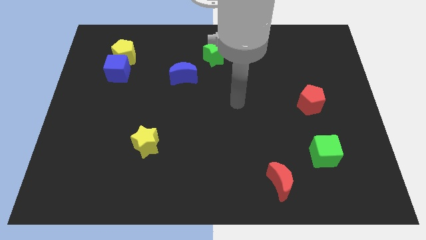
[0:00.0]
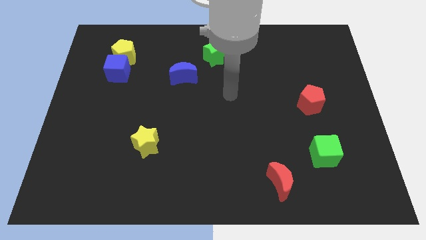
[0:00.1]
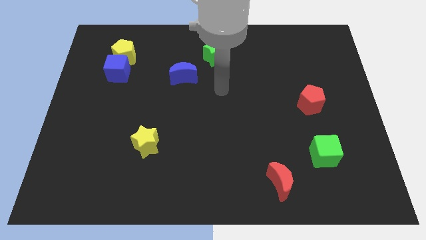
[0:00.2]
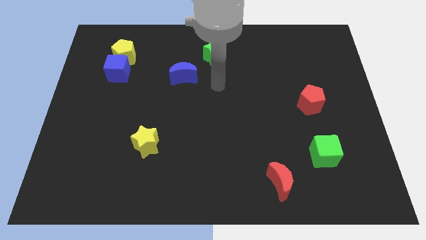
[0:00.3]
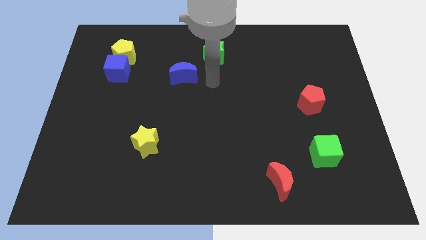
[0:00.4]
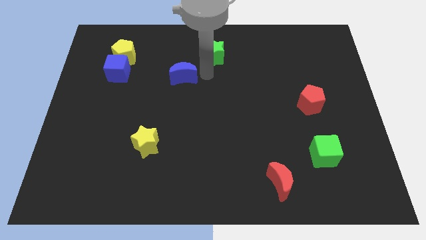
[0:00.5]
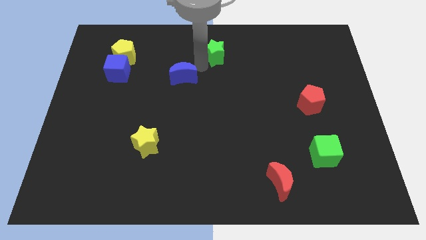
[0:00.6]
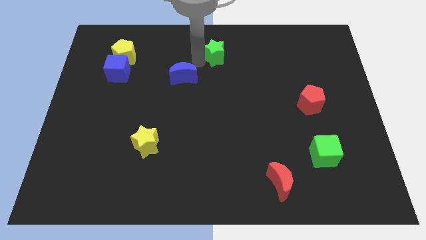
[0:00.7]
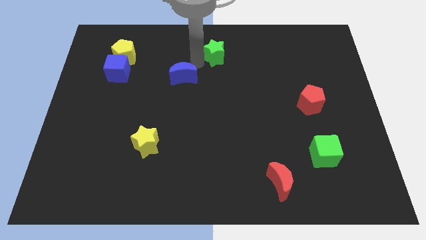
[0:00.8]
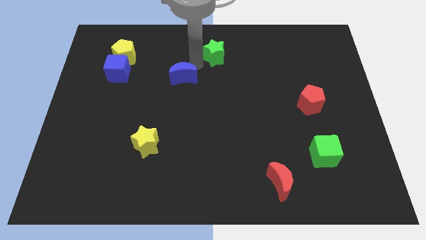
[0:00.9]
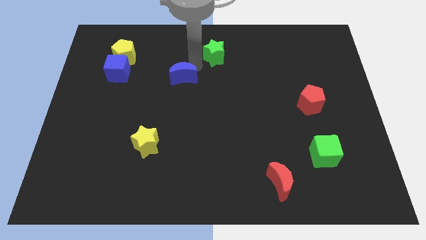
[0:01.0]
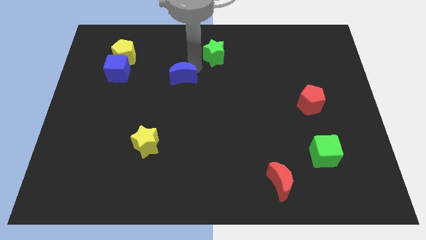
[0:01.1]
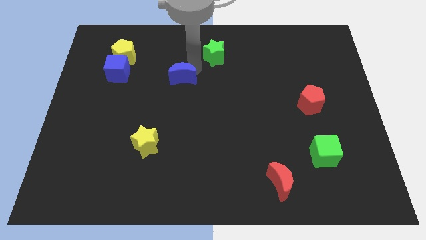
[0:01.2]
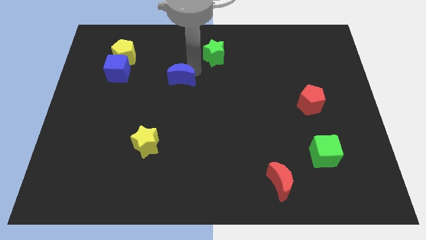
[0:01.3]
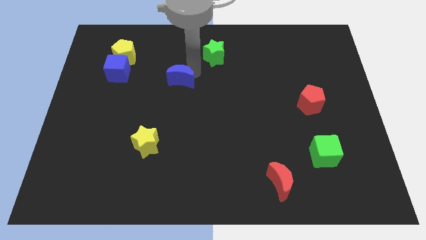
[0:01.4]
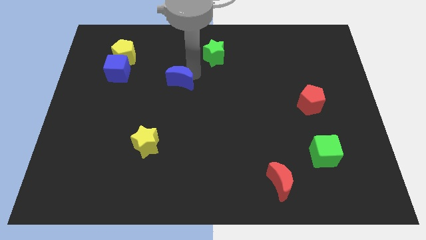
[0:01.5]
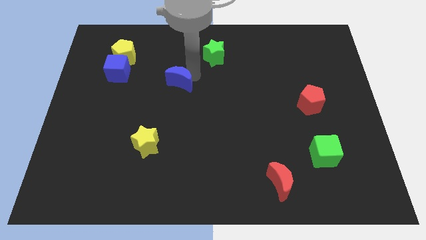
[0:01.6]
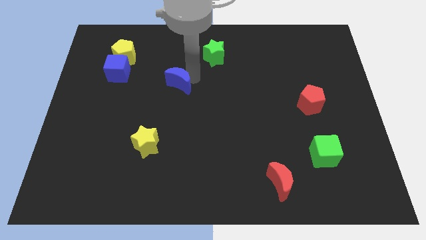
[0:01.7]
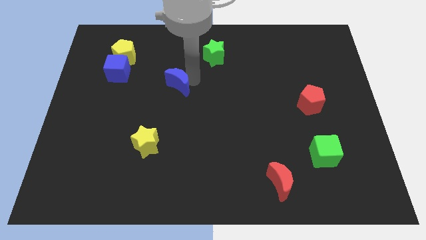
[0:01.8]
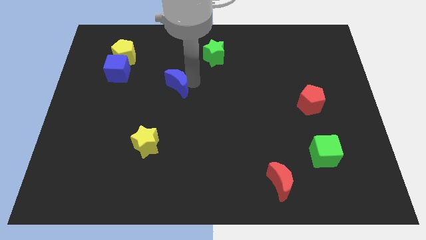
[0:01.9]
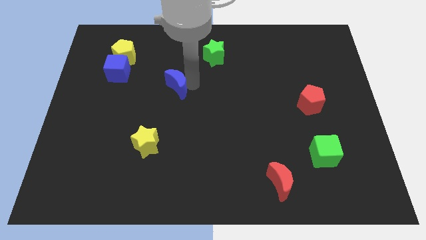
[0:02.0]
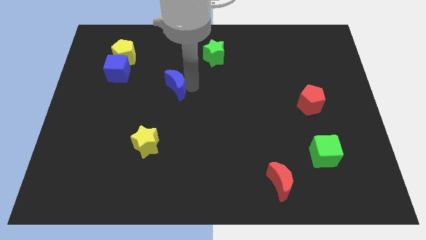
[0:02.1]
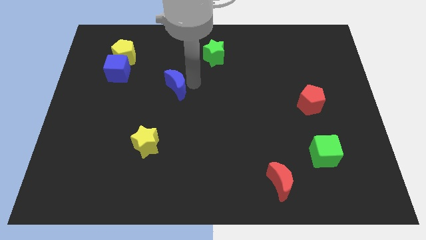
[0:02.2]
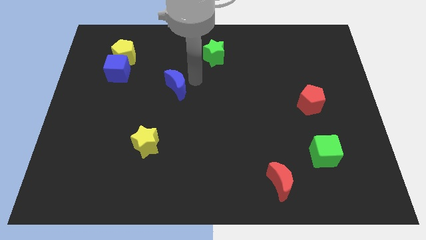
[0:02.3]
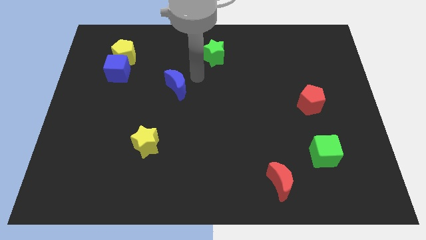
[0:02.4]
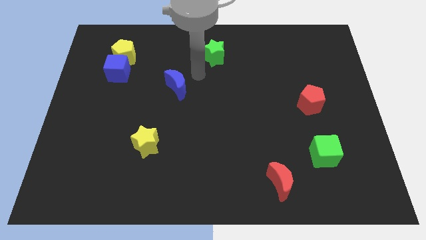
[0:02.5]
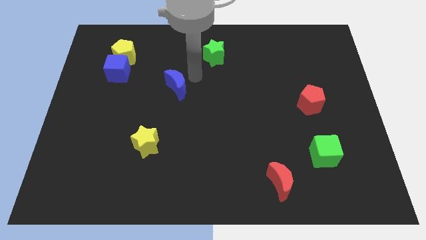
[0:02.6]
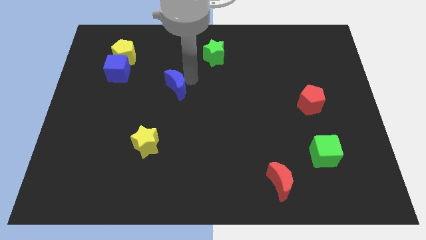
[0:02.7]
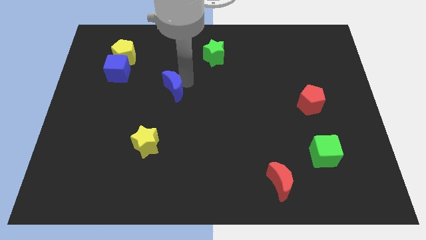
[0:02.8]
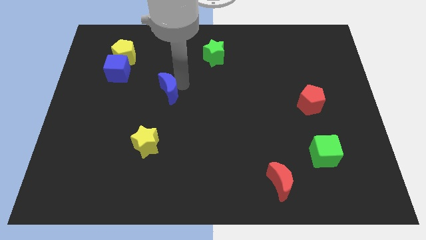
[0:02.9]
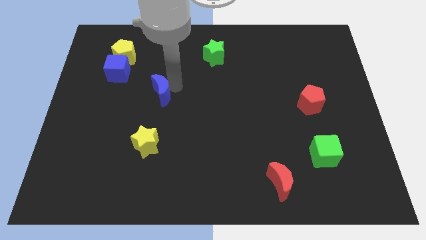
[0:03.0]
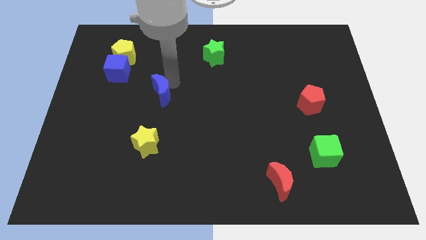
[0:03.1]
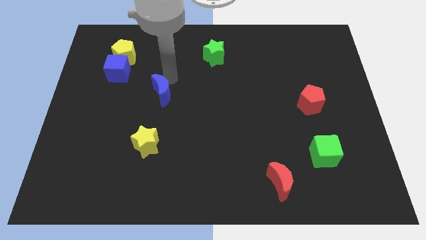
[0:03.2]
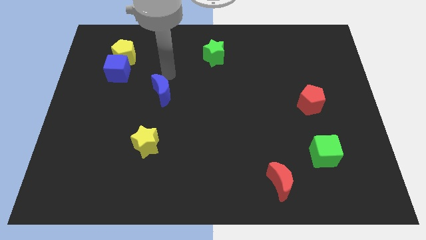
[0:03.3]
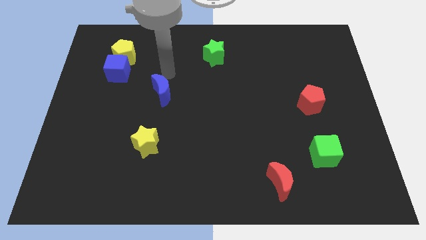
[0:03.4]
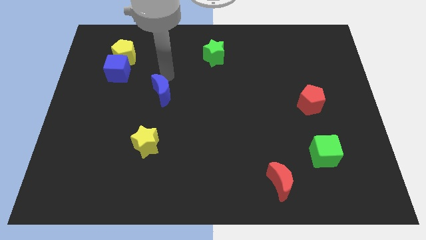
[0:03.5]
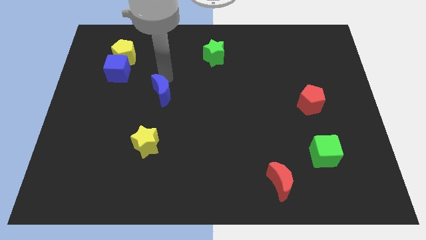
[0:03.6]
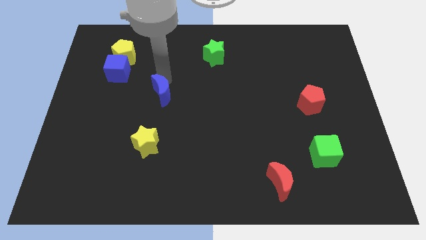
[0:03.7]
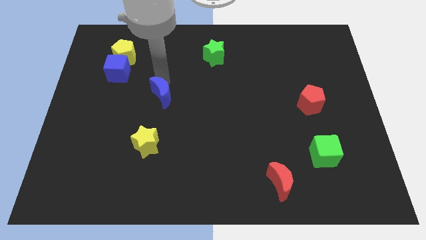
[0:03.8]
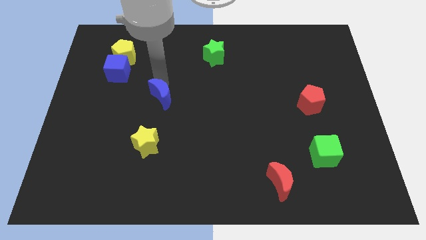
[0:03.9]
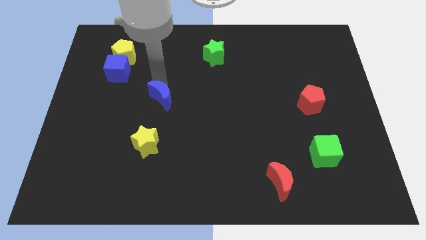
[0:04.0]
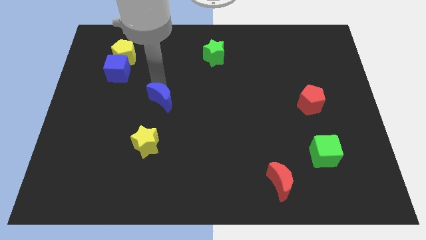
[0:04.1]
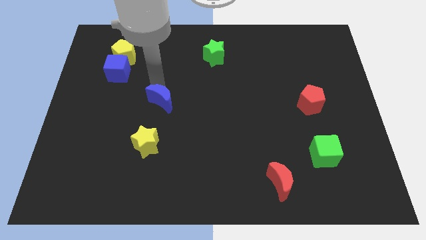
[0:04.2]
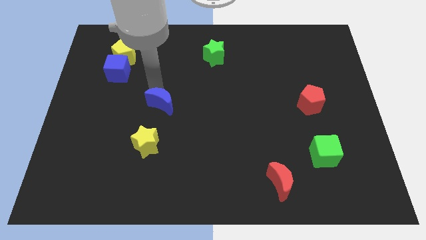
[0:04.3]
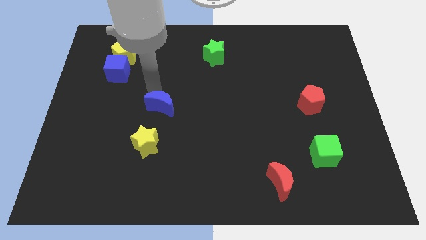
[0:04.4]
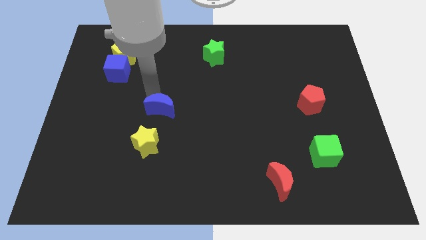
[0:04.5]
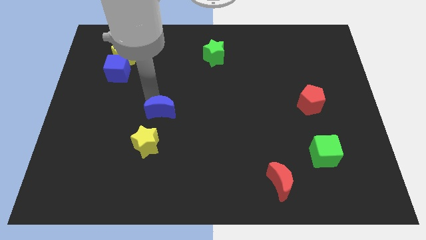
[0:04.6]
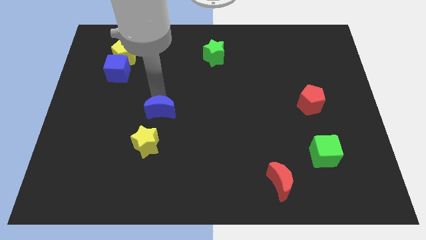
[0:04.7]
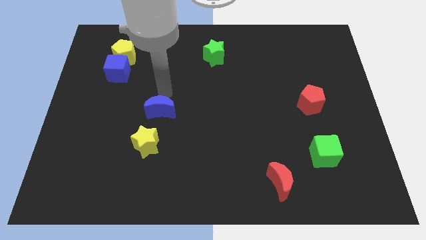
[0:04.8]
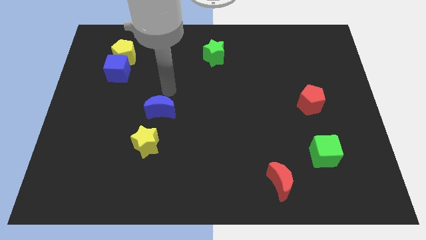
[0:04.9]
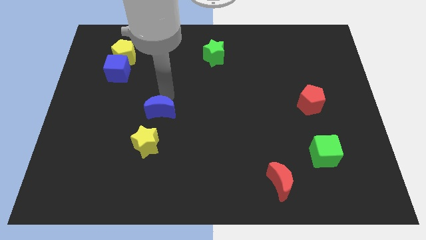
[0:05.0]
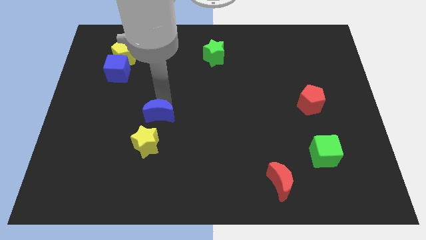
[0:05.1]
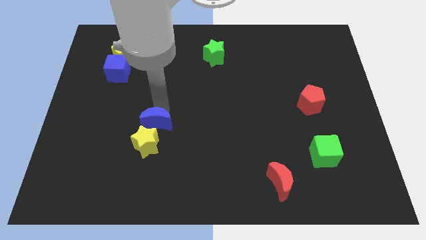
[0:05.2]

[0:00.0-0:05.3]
move the blue moon towards the yellow star

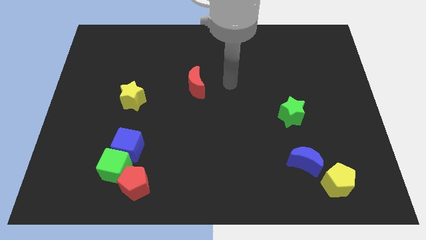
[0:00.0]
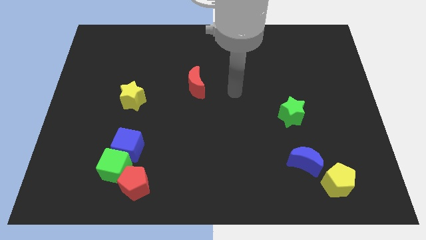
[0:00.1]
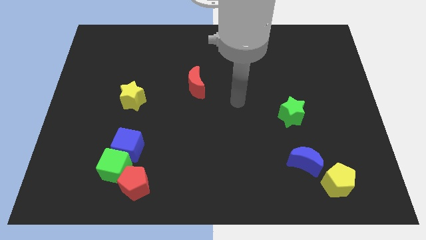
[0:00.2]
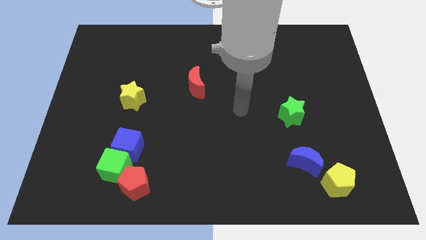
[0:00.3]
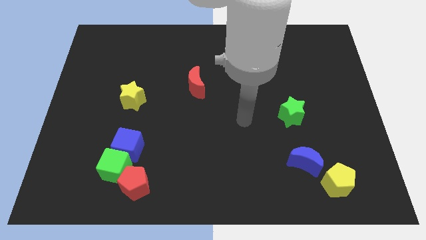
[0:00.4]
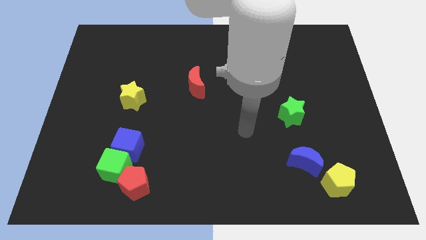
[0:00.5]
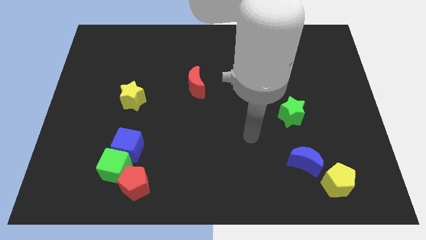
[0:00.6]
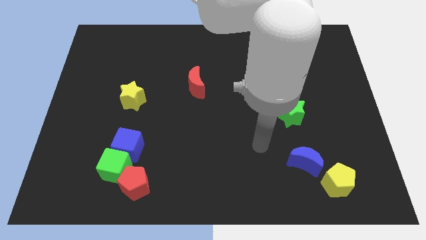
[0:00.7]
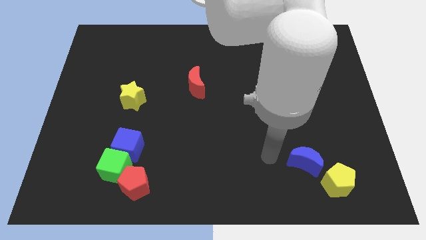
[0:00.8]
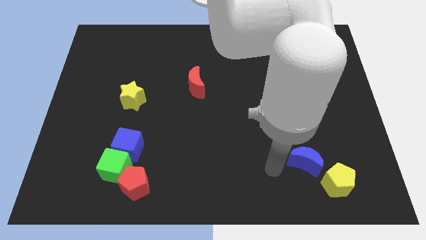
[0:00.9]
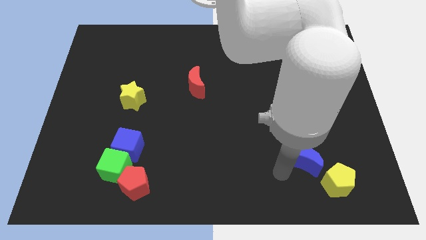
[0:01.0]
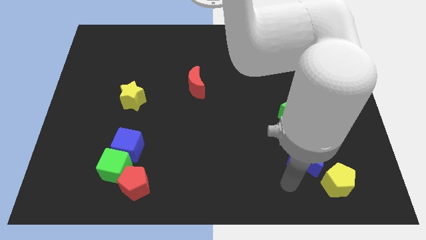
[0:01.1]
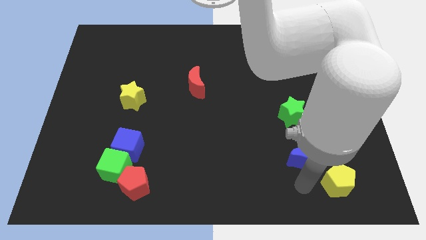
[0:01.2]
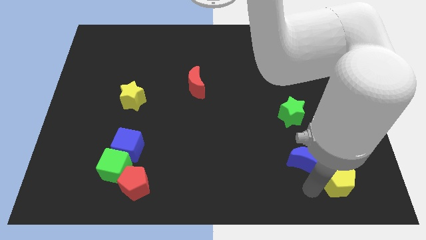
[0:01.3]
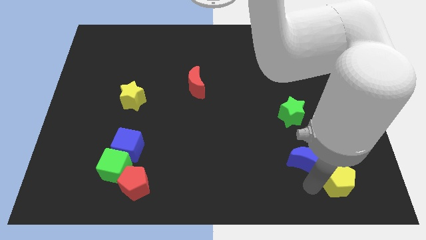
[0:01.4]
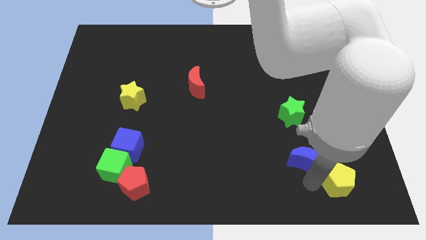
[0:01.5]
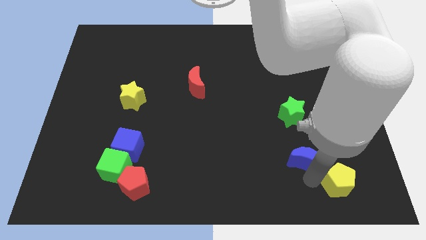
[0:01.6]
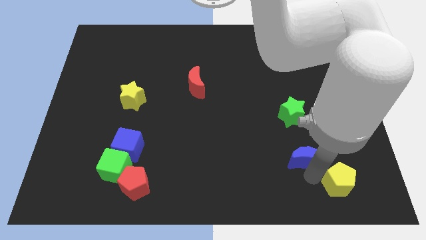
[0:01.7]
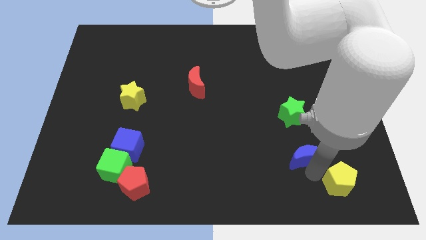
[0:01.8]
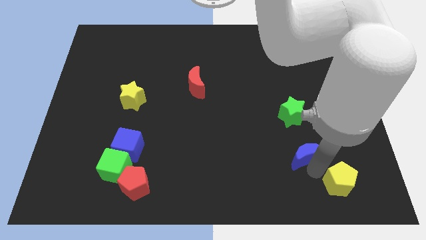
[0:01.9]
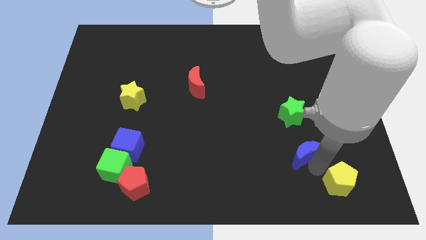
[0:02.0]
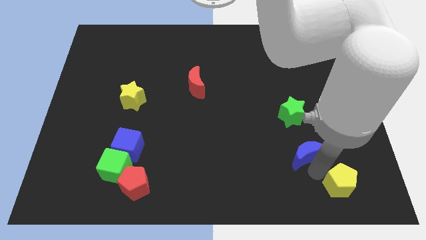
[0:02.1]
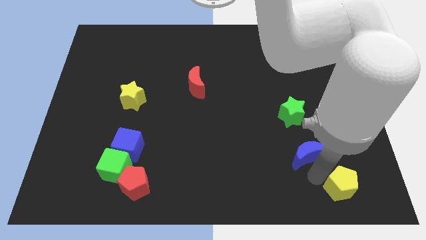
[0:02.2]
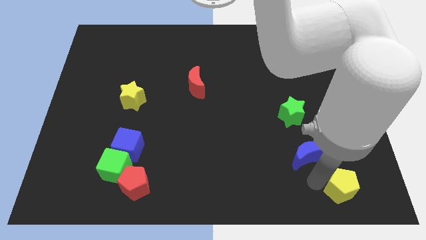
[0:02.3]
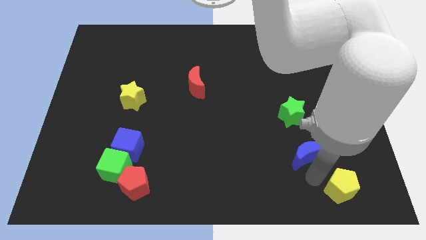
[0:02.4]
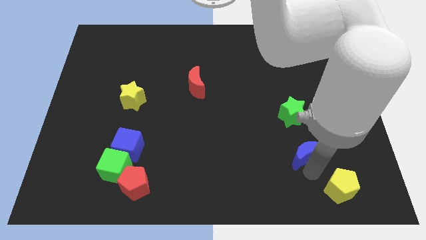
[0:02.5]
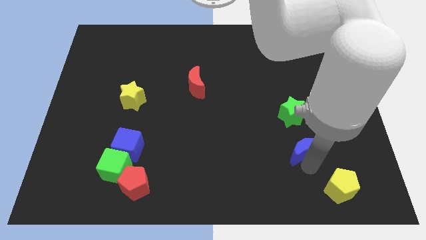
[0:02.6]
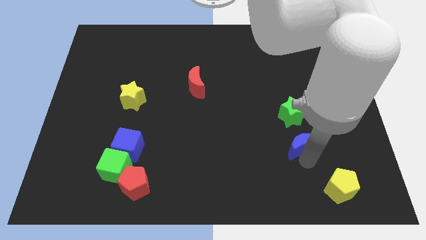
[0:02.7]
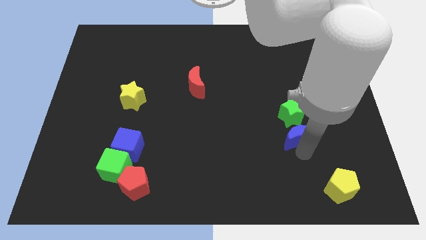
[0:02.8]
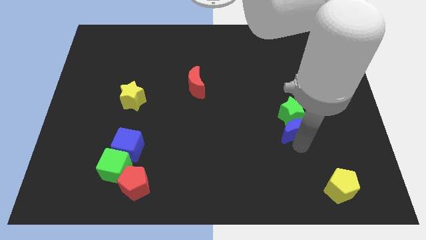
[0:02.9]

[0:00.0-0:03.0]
move the blue moon next to the green star
